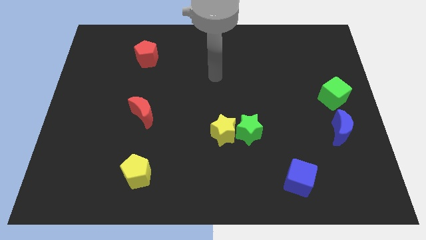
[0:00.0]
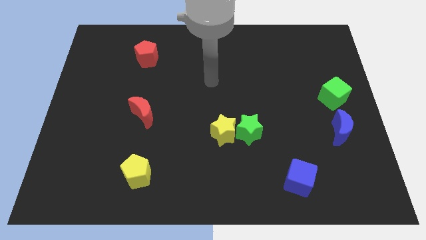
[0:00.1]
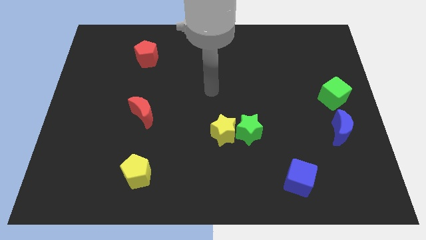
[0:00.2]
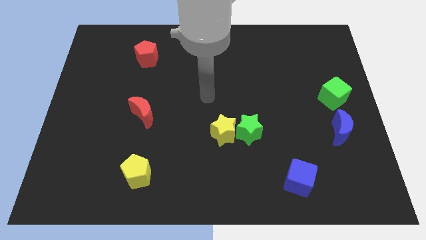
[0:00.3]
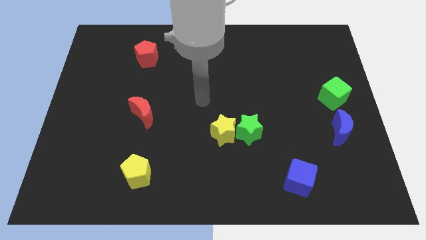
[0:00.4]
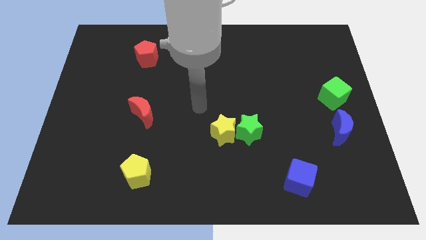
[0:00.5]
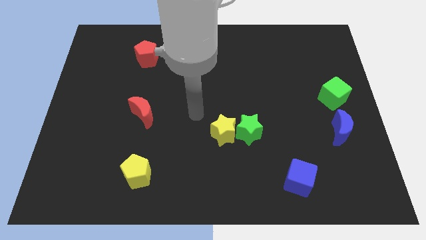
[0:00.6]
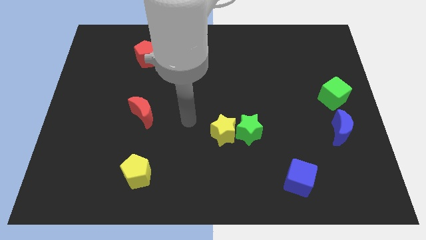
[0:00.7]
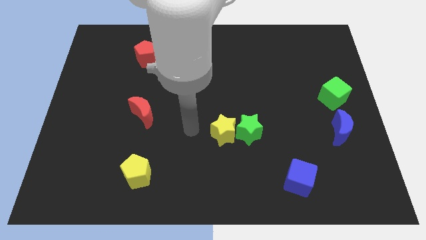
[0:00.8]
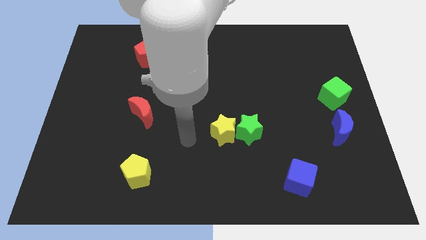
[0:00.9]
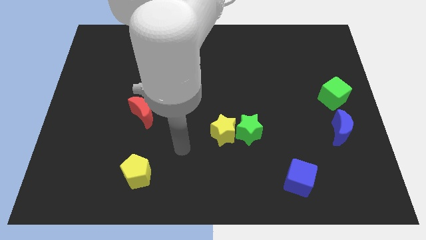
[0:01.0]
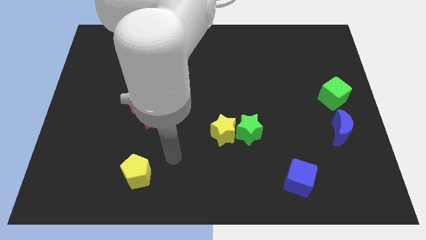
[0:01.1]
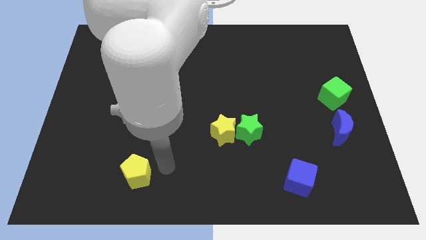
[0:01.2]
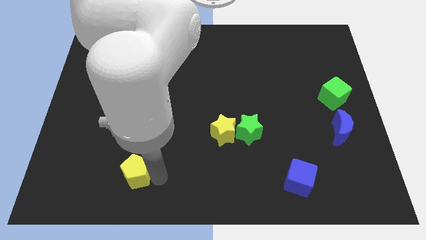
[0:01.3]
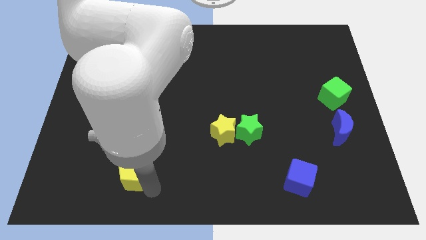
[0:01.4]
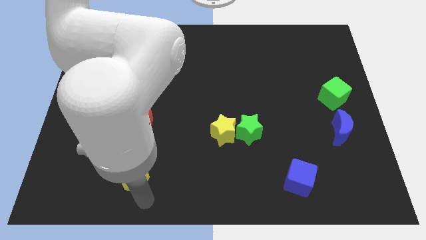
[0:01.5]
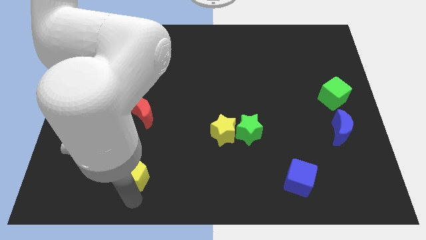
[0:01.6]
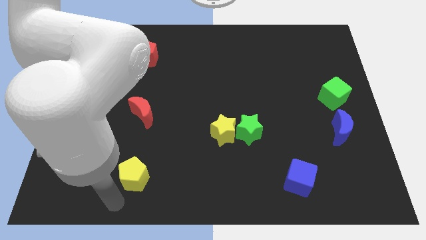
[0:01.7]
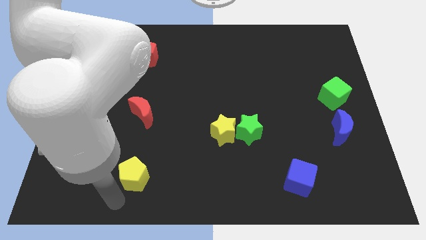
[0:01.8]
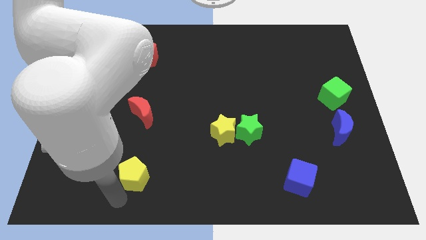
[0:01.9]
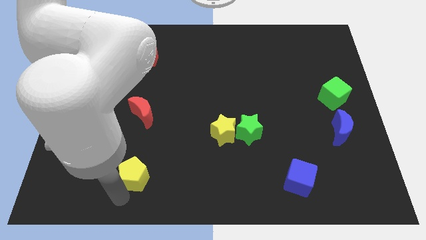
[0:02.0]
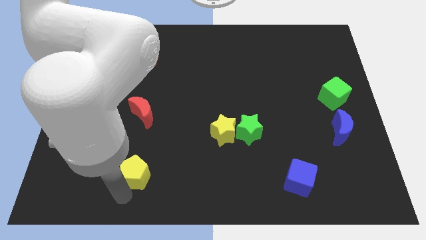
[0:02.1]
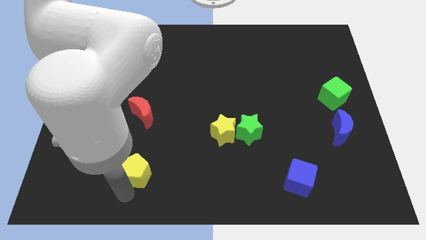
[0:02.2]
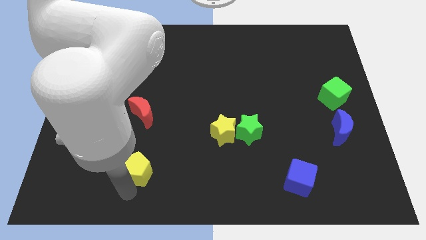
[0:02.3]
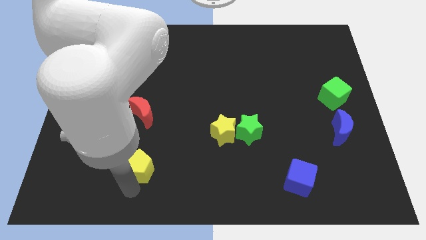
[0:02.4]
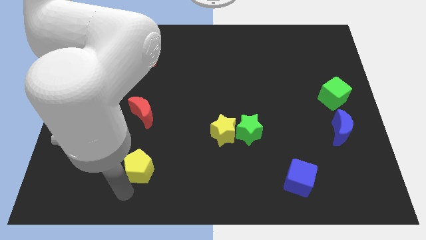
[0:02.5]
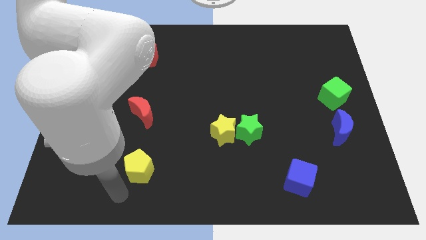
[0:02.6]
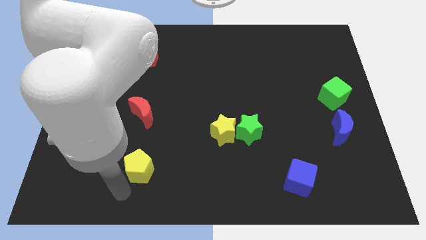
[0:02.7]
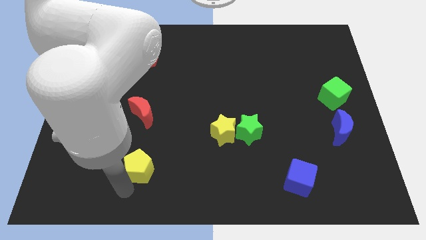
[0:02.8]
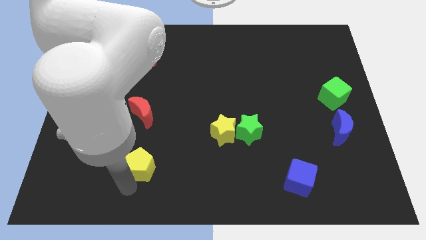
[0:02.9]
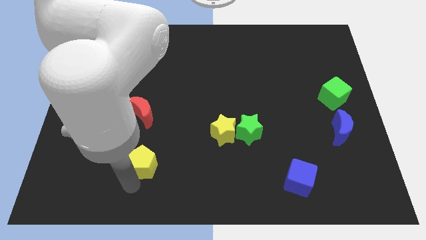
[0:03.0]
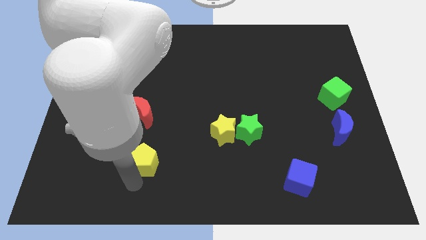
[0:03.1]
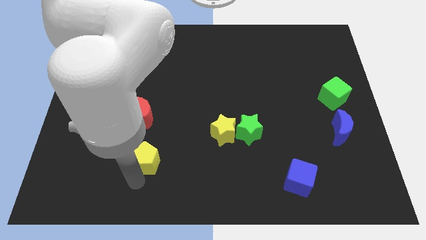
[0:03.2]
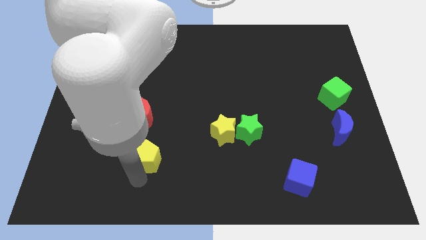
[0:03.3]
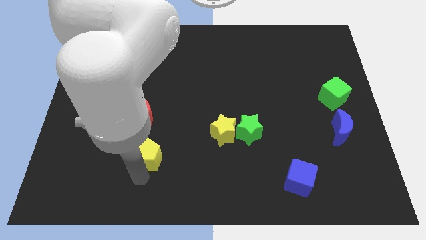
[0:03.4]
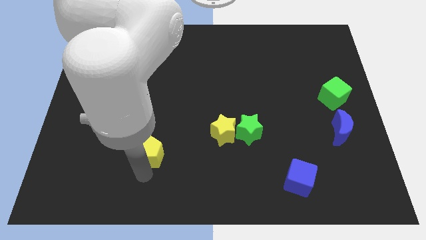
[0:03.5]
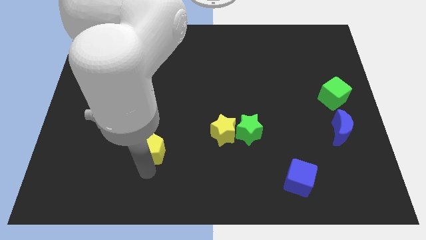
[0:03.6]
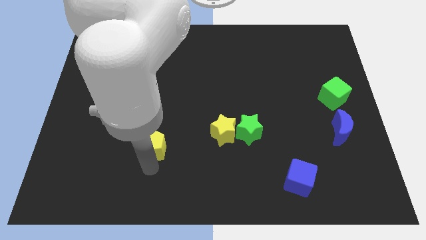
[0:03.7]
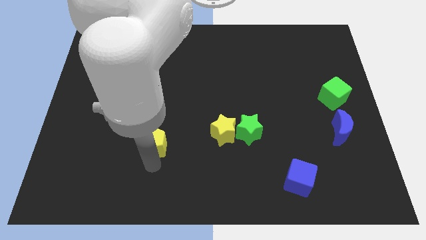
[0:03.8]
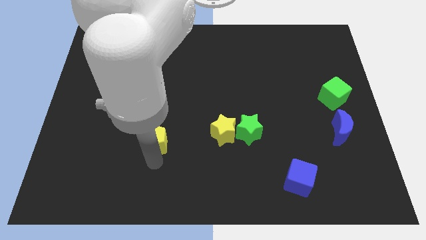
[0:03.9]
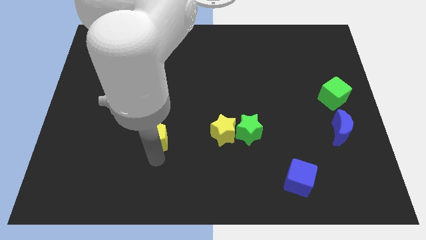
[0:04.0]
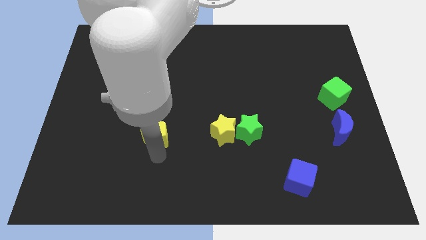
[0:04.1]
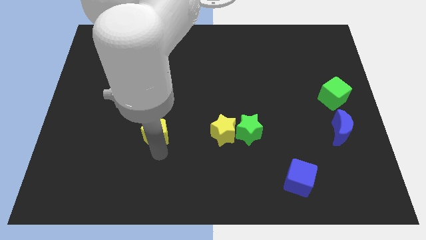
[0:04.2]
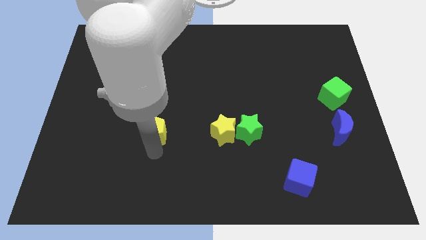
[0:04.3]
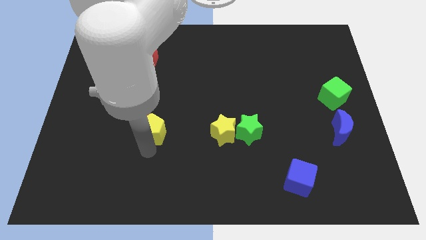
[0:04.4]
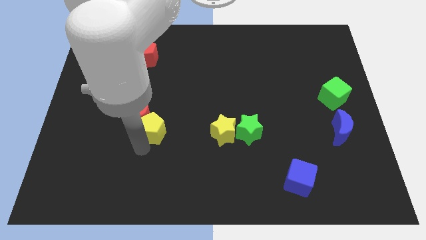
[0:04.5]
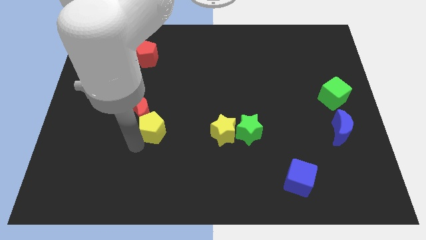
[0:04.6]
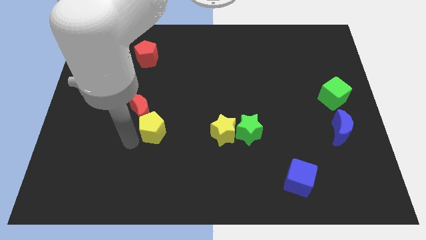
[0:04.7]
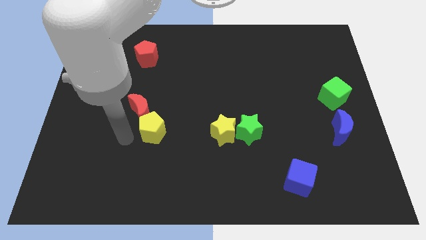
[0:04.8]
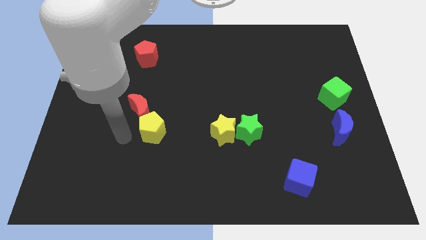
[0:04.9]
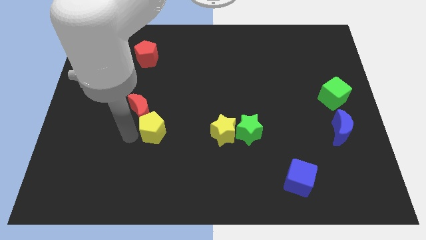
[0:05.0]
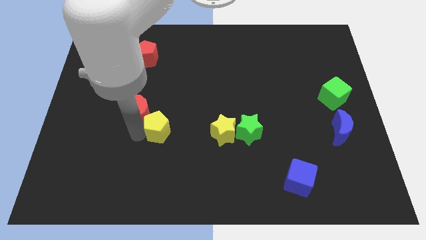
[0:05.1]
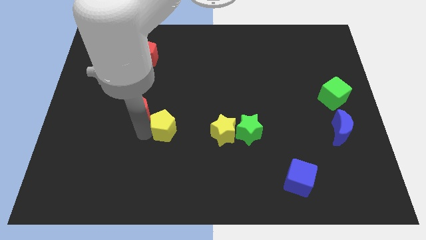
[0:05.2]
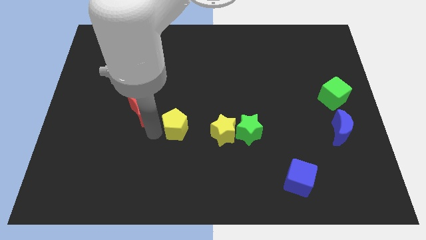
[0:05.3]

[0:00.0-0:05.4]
slide the yellow pentagon to the center of the board

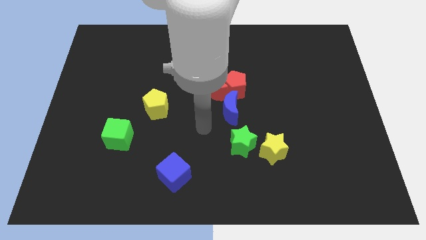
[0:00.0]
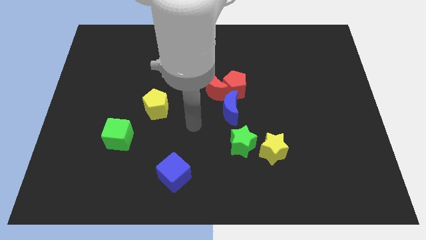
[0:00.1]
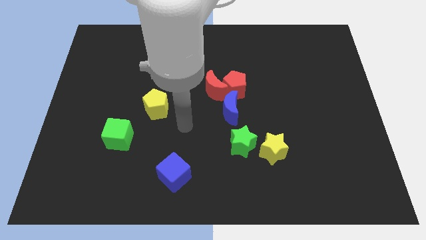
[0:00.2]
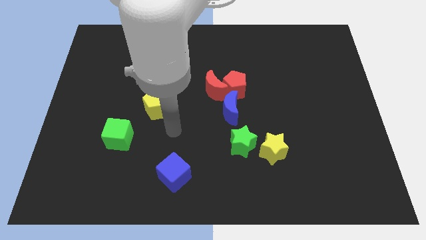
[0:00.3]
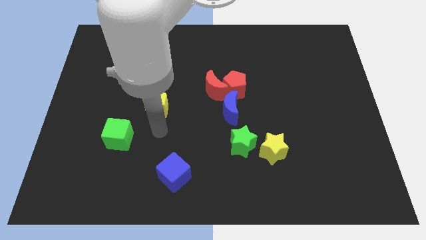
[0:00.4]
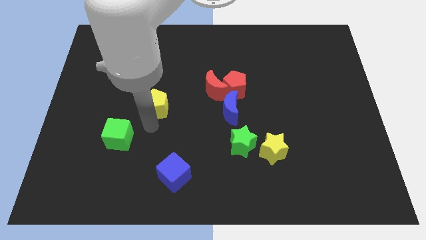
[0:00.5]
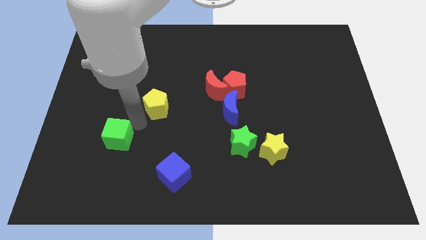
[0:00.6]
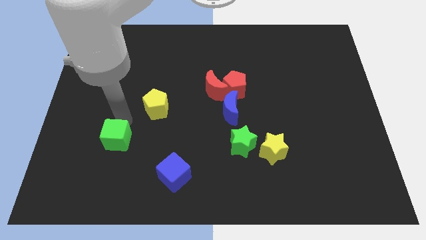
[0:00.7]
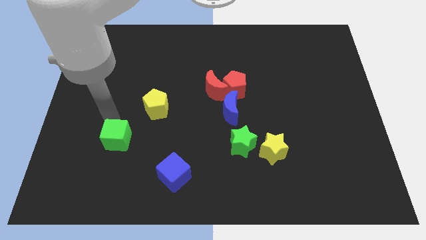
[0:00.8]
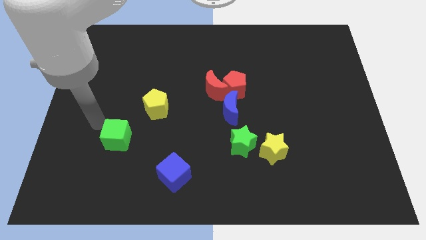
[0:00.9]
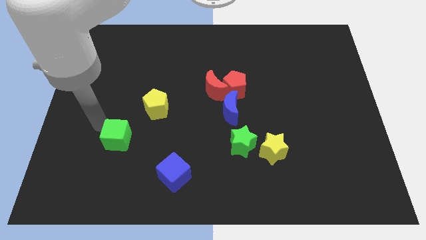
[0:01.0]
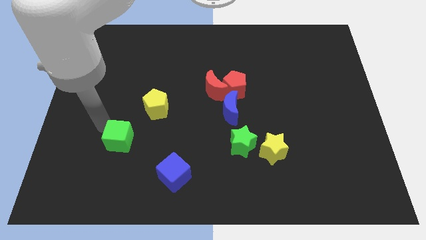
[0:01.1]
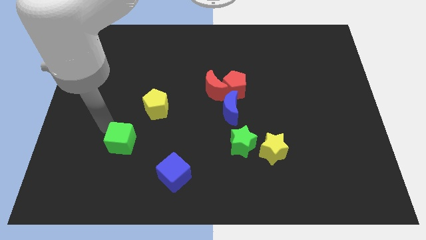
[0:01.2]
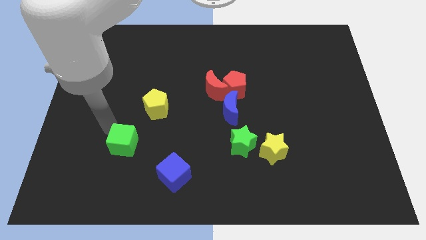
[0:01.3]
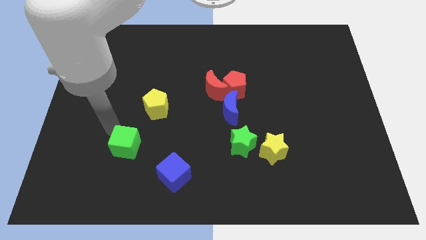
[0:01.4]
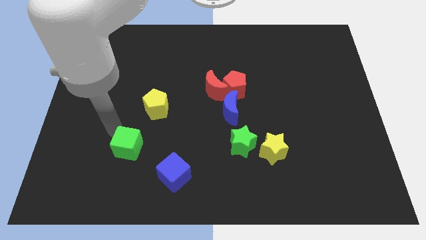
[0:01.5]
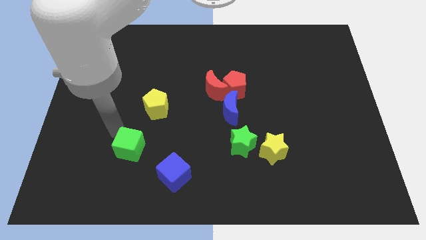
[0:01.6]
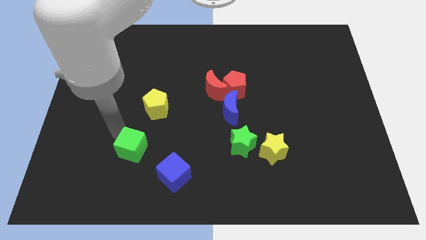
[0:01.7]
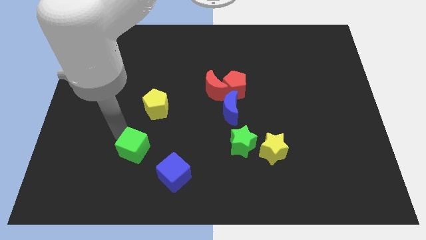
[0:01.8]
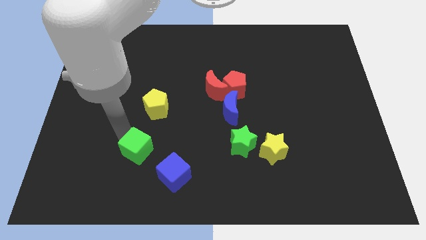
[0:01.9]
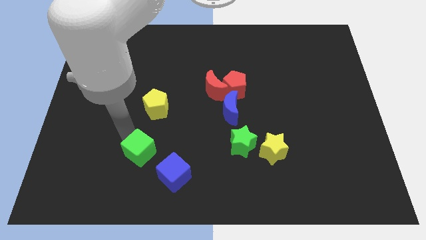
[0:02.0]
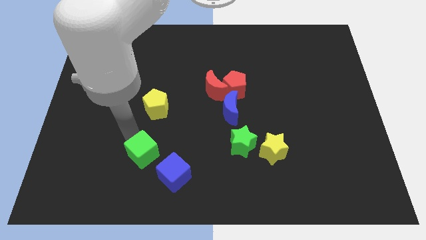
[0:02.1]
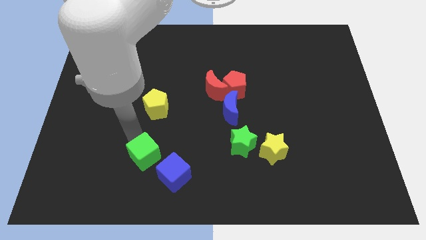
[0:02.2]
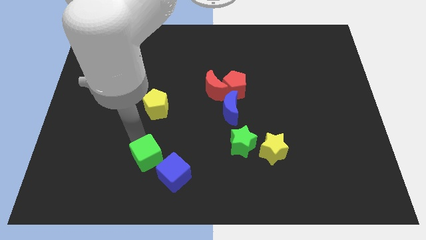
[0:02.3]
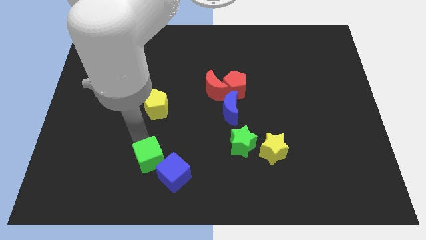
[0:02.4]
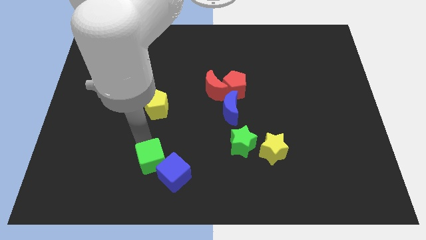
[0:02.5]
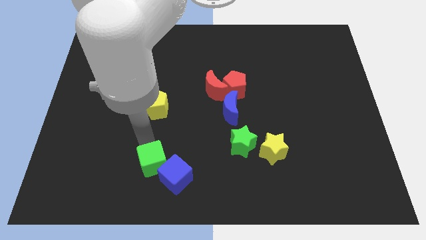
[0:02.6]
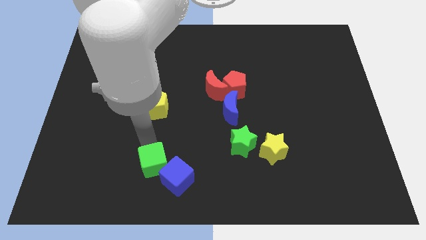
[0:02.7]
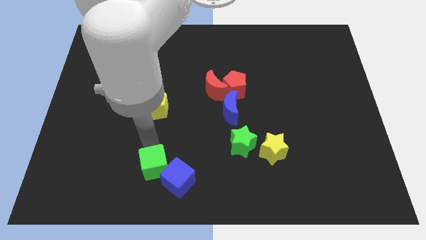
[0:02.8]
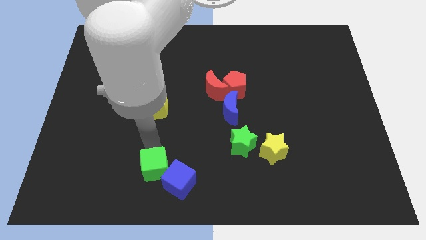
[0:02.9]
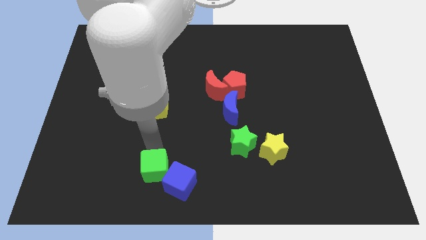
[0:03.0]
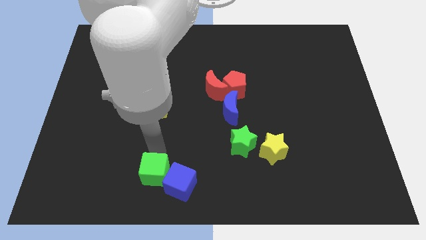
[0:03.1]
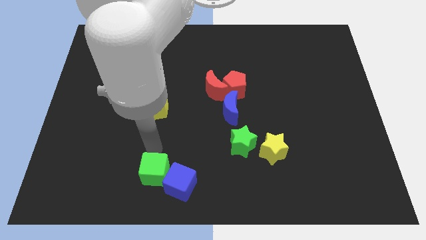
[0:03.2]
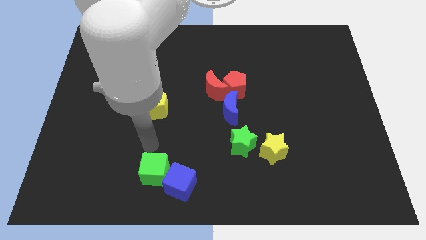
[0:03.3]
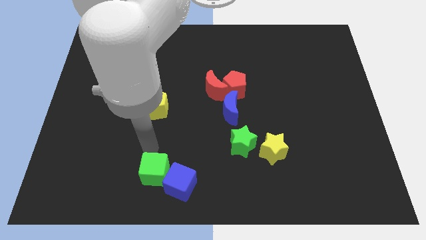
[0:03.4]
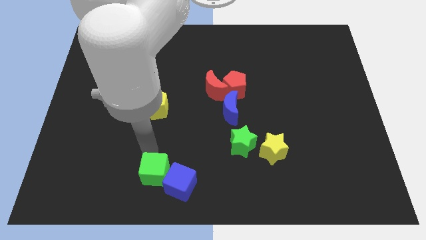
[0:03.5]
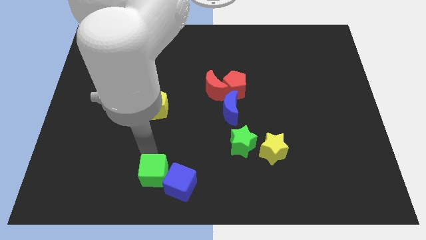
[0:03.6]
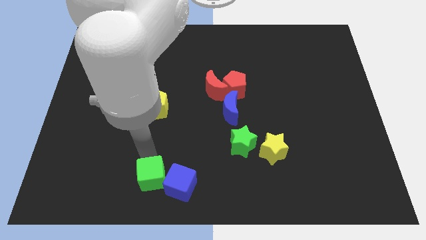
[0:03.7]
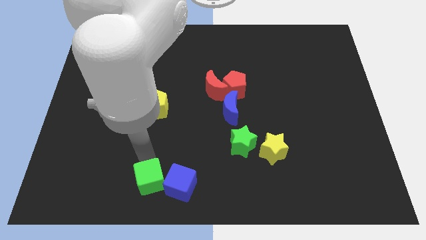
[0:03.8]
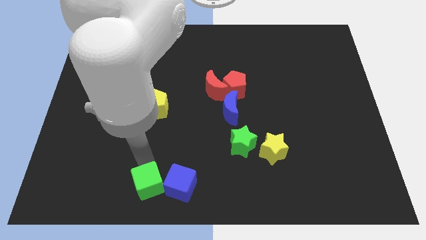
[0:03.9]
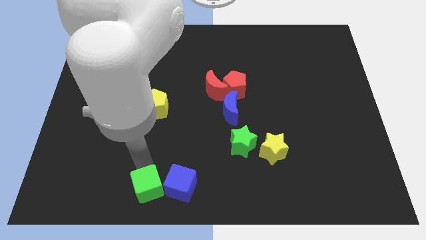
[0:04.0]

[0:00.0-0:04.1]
put the green cube to the bottom side
